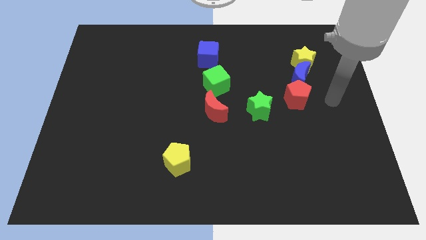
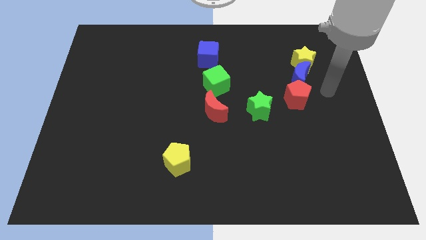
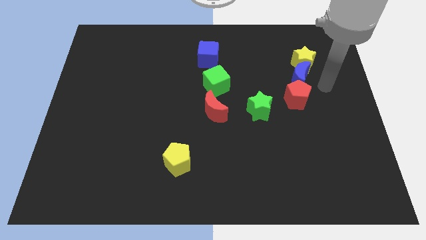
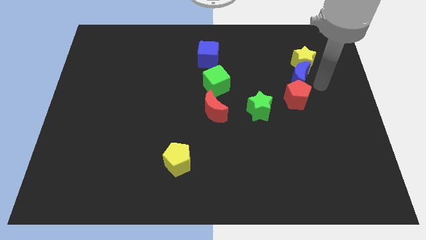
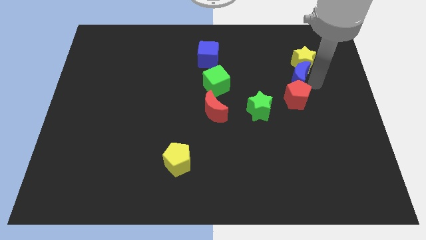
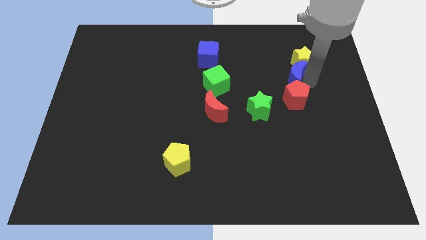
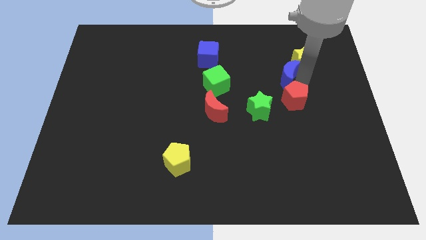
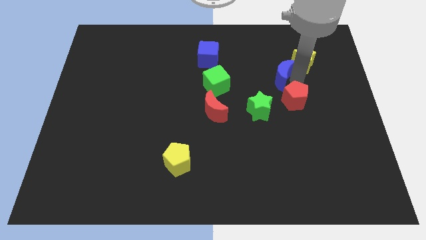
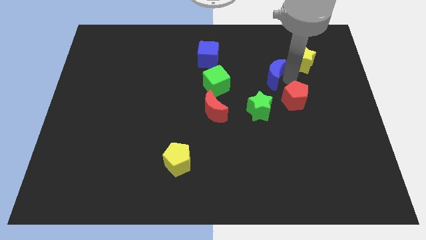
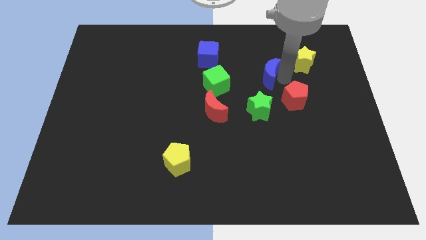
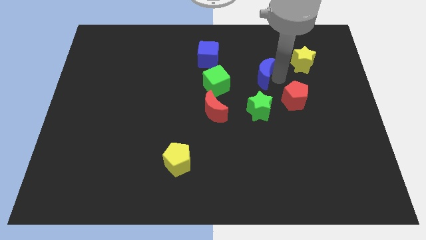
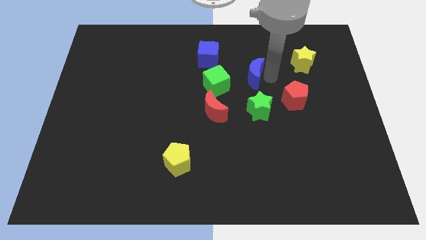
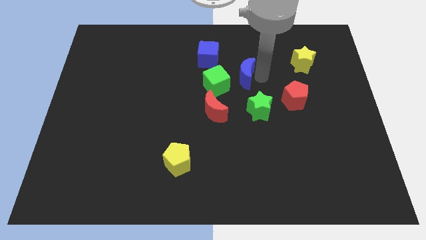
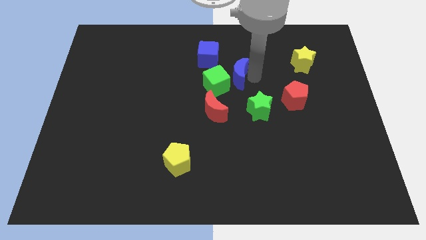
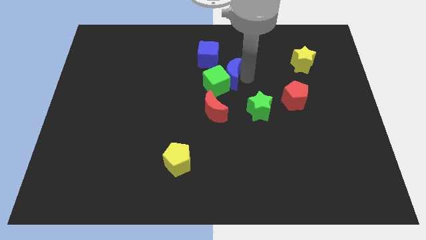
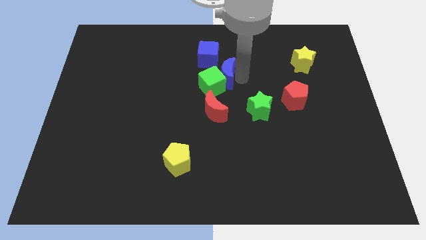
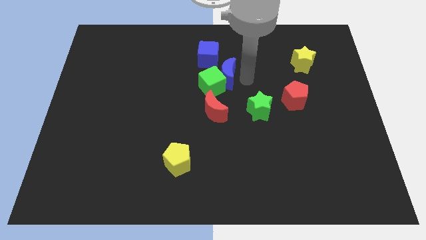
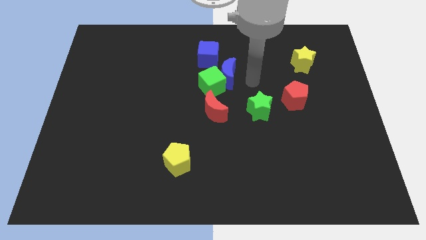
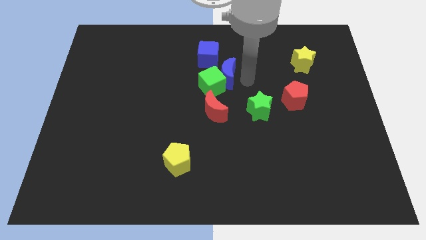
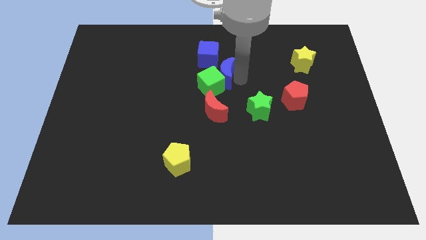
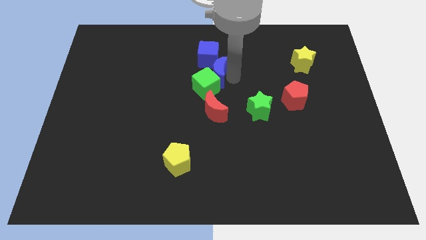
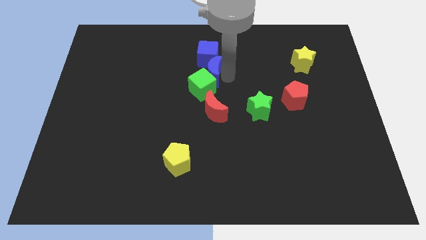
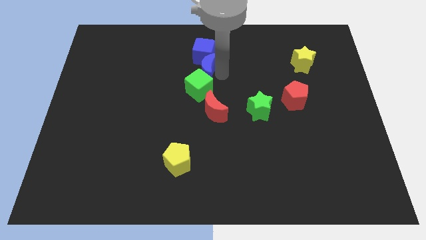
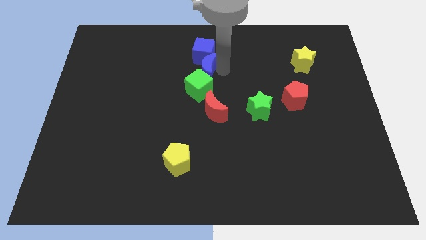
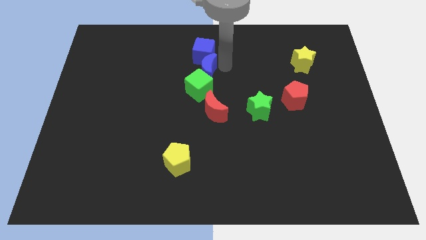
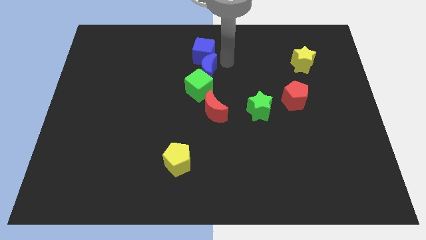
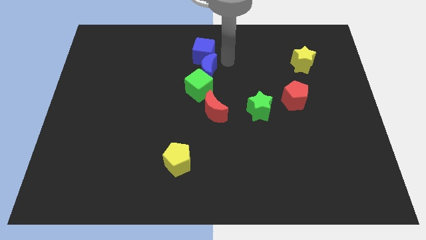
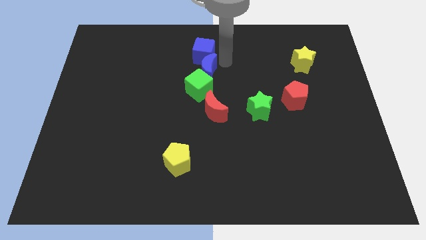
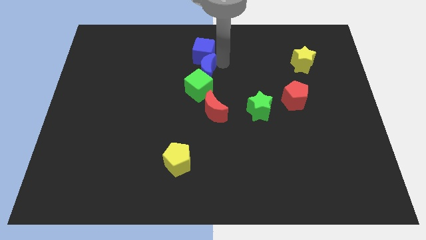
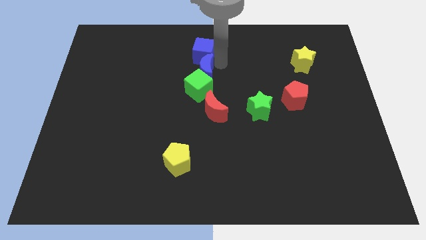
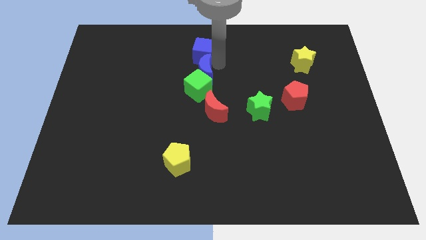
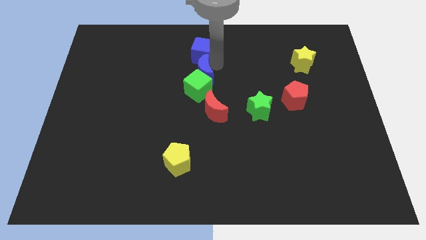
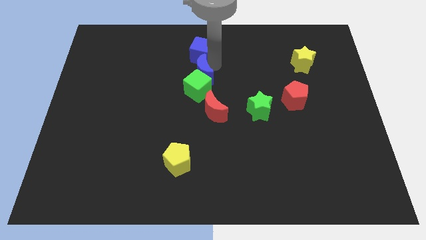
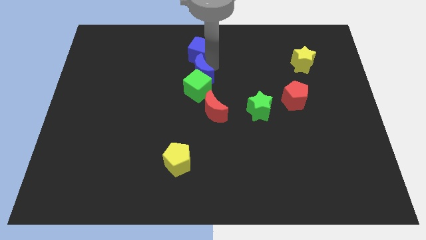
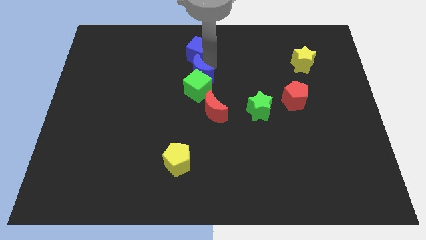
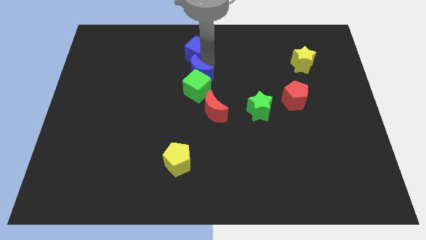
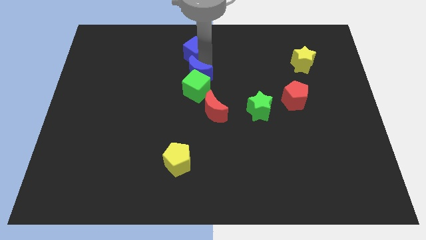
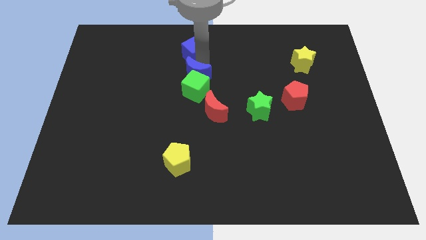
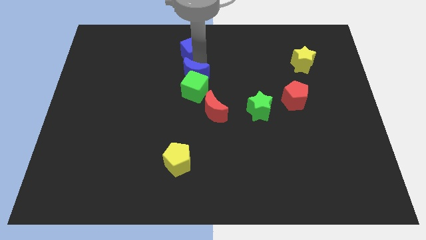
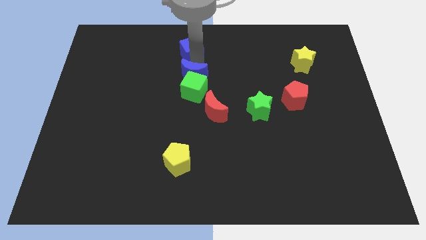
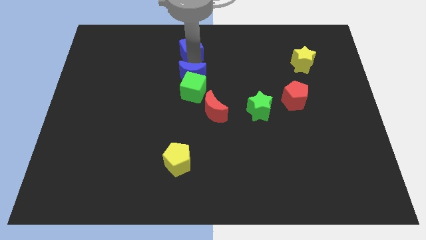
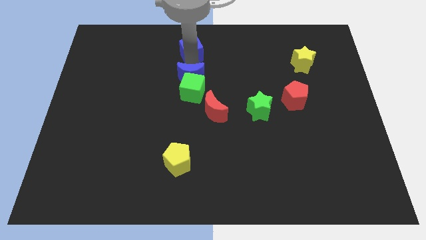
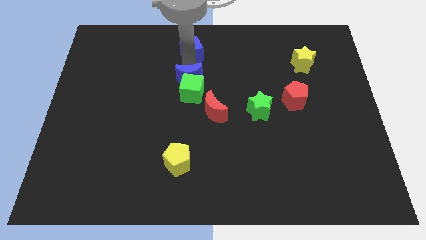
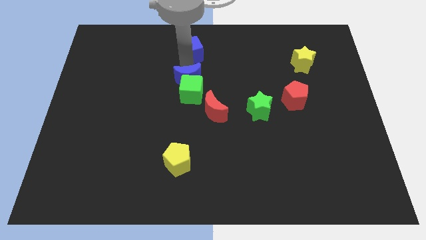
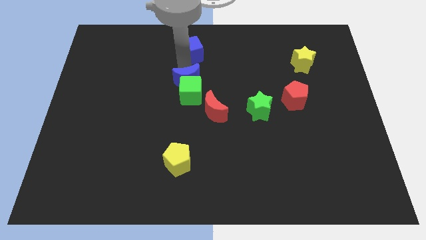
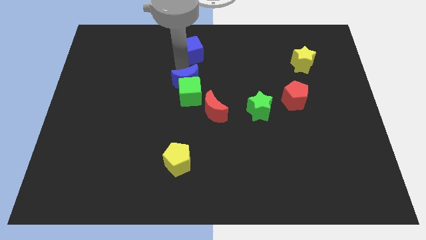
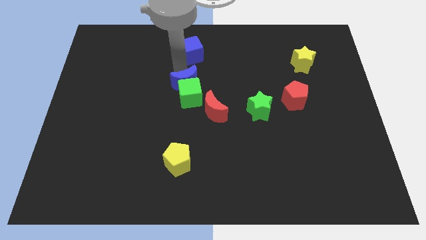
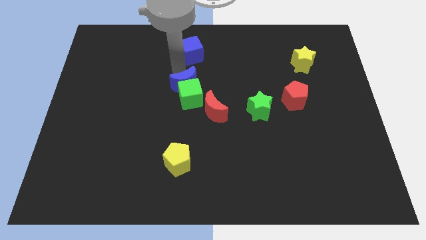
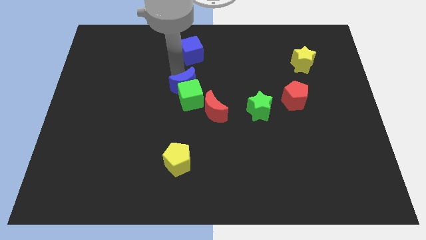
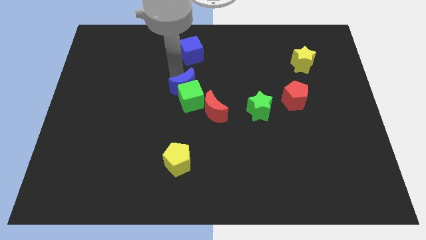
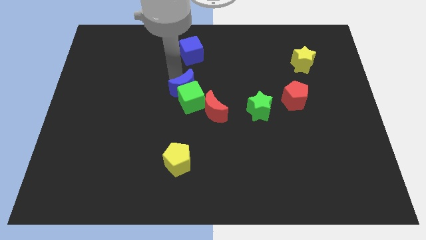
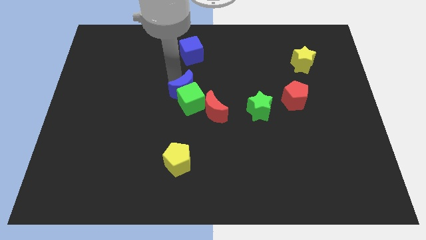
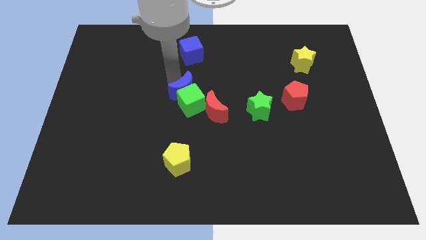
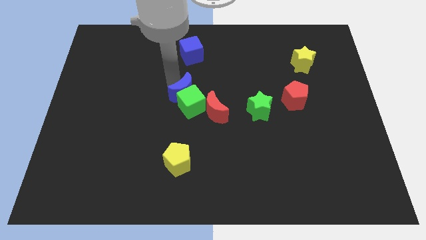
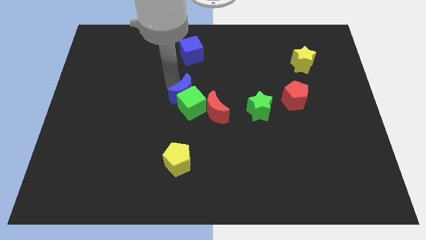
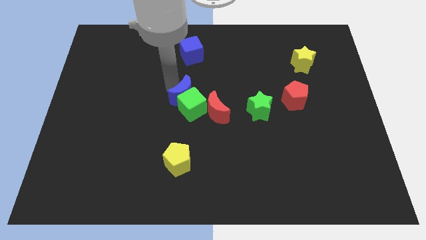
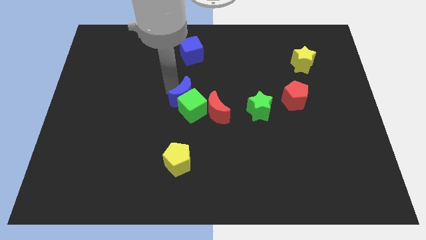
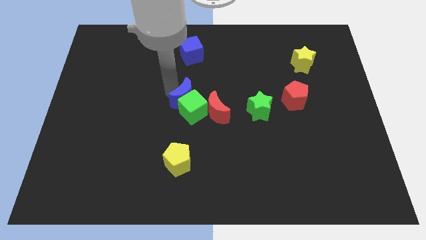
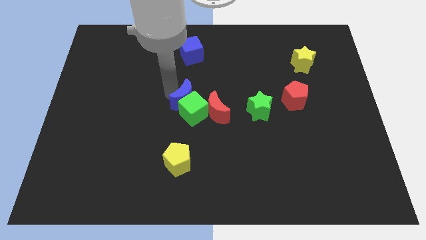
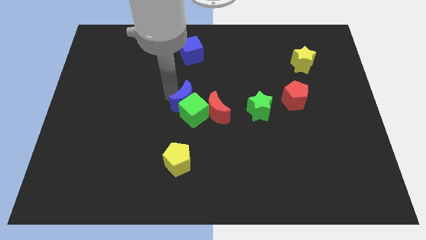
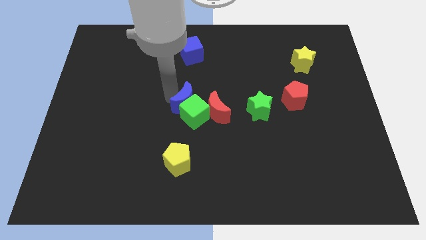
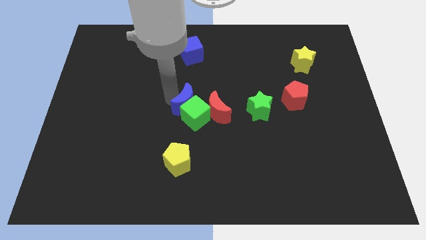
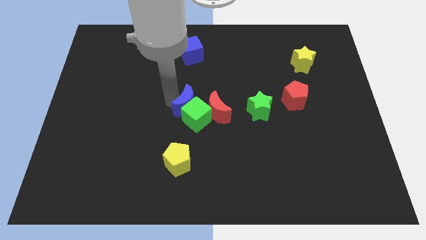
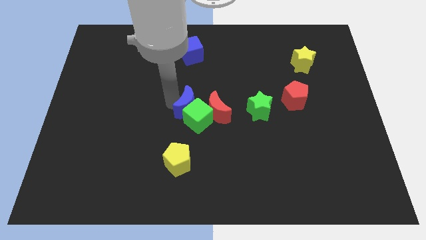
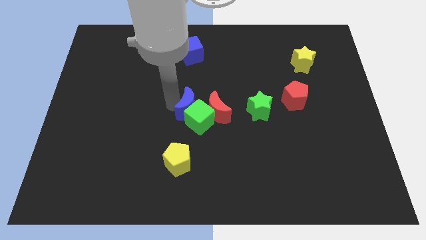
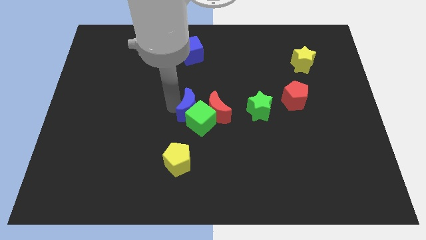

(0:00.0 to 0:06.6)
push the blue moon left of the green star

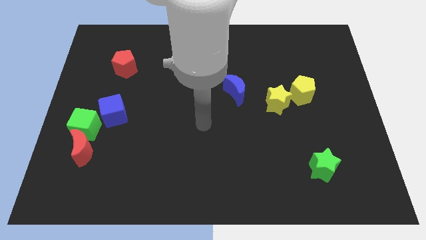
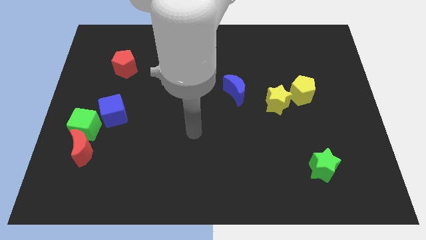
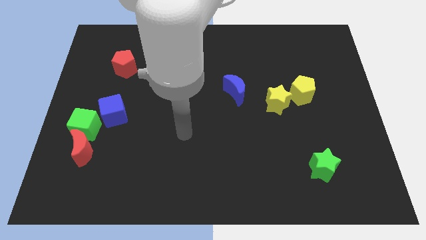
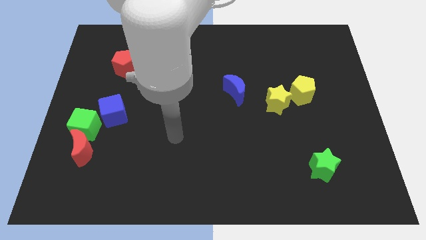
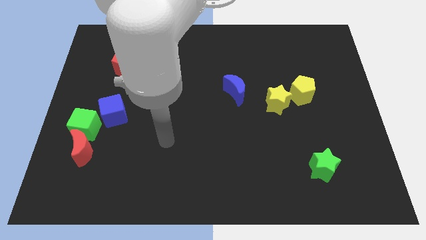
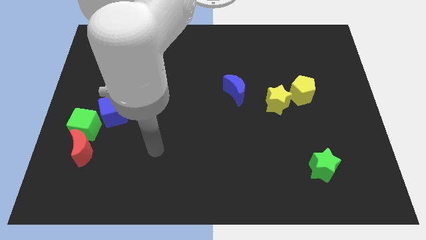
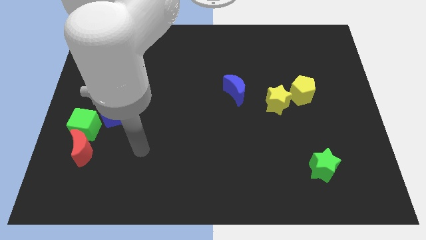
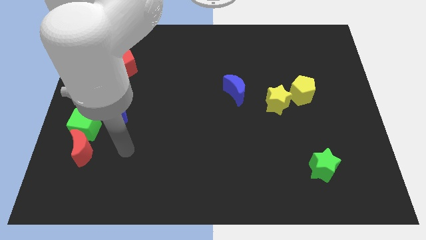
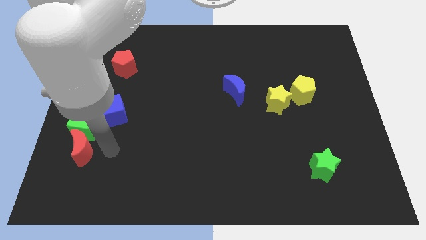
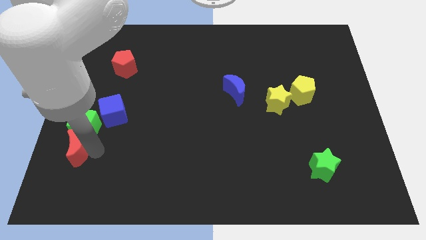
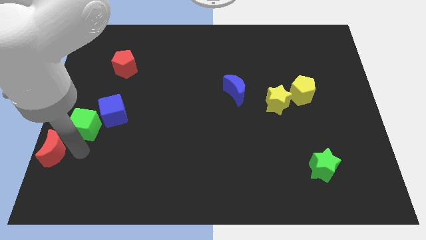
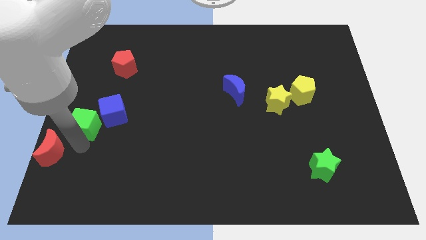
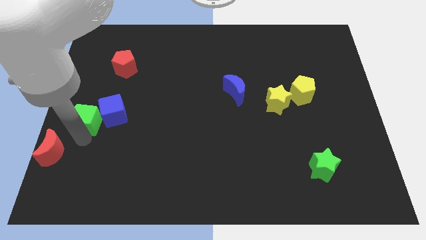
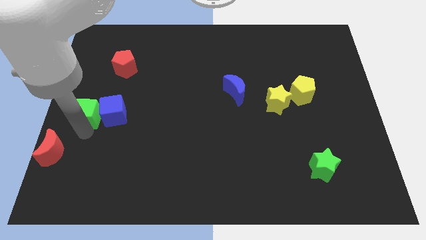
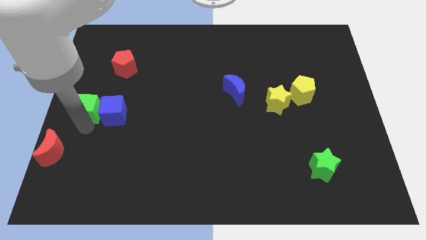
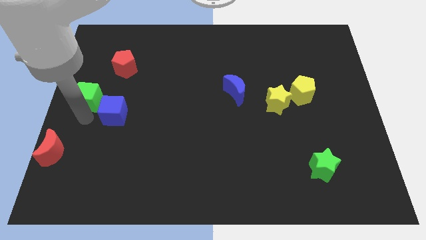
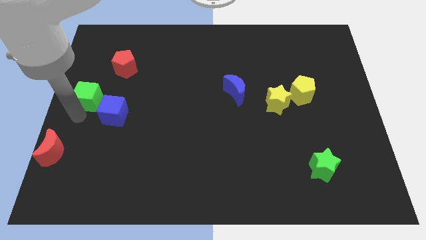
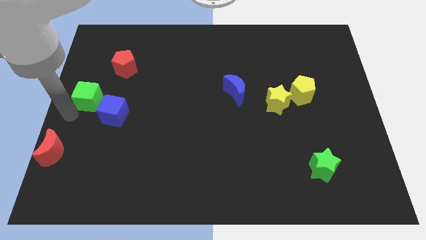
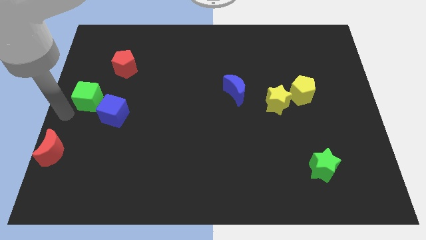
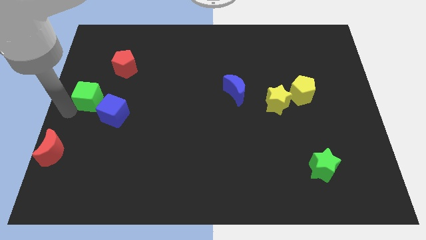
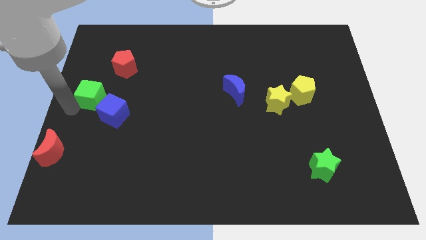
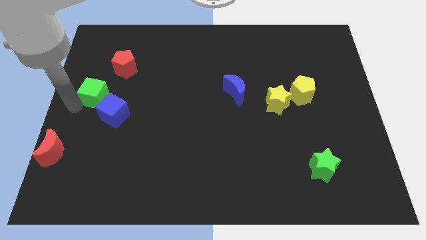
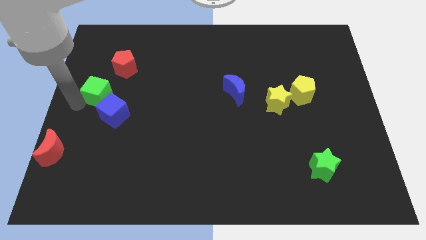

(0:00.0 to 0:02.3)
move the green cube to the top side of the blue cube
